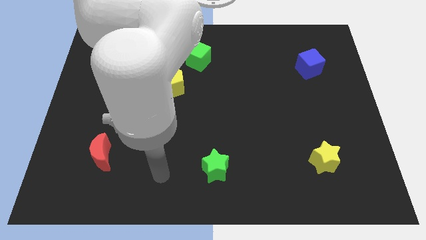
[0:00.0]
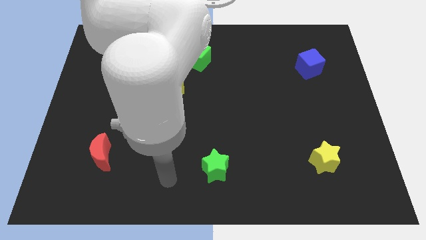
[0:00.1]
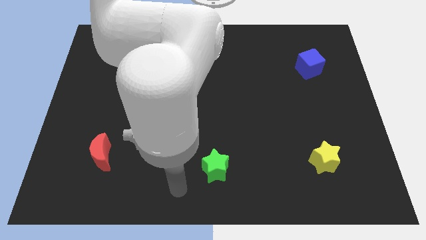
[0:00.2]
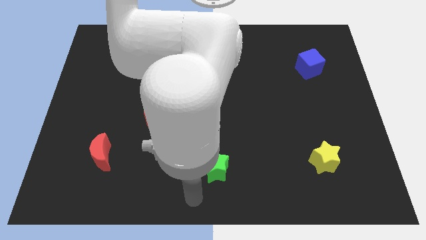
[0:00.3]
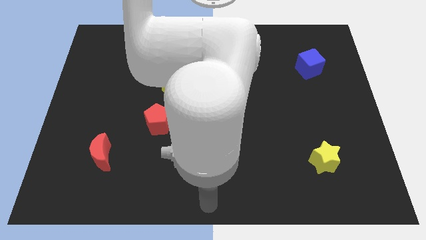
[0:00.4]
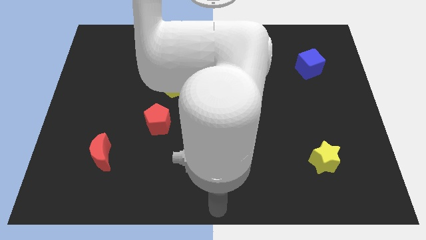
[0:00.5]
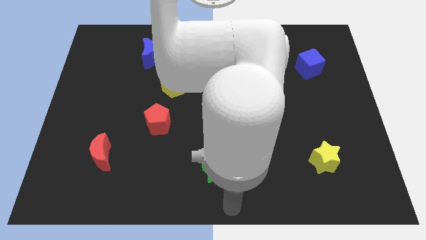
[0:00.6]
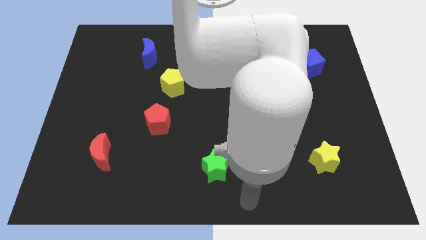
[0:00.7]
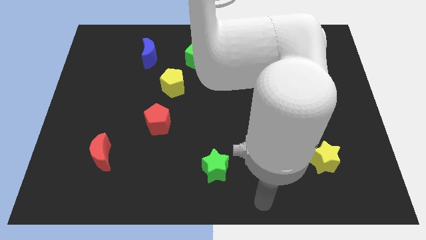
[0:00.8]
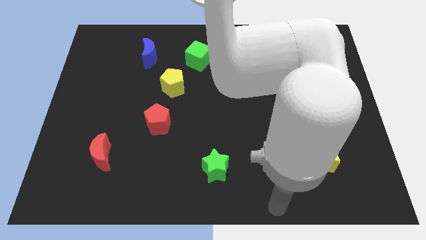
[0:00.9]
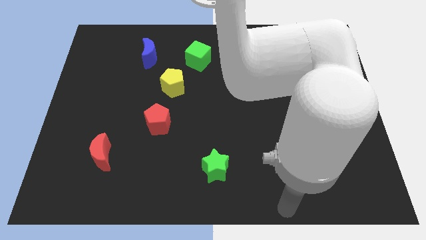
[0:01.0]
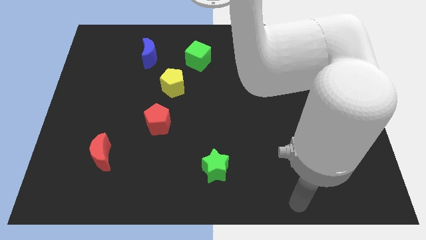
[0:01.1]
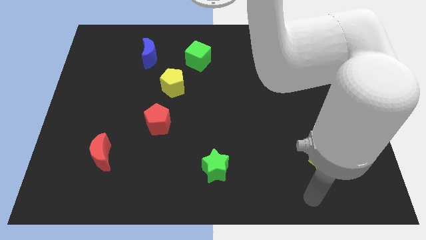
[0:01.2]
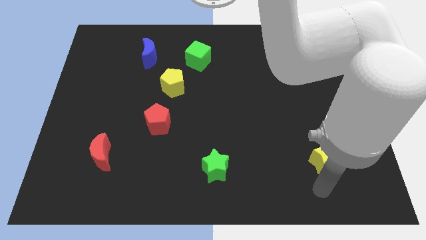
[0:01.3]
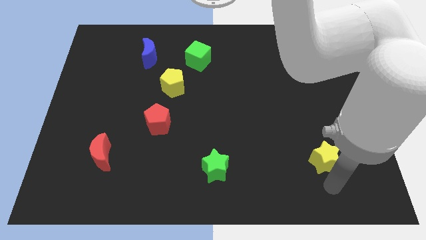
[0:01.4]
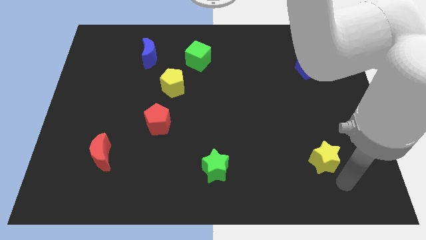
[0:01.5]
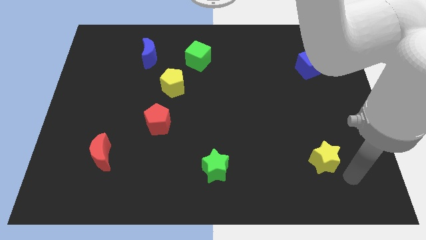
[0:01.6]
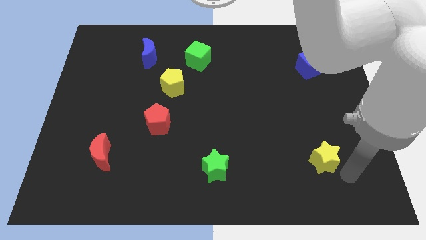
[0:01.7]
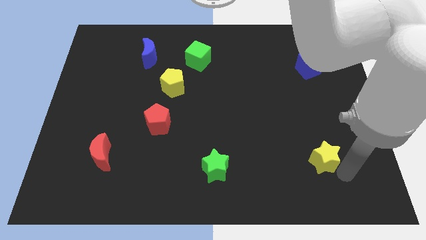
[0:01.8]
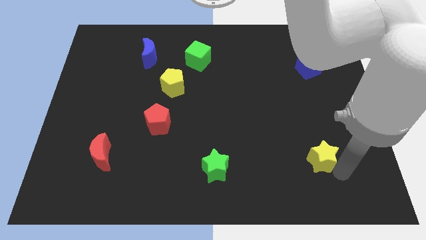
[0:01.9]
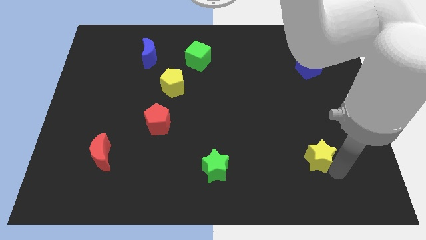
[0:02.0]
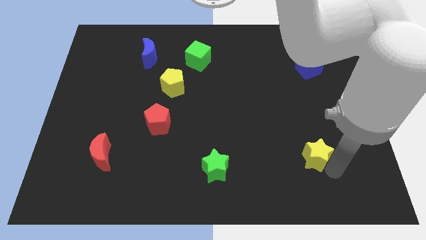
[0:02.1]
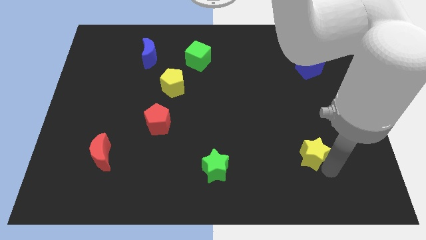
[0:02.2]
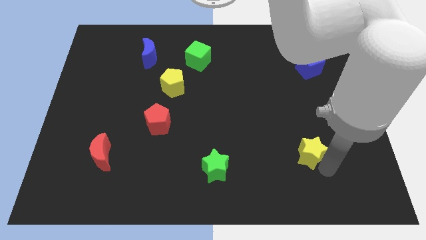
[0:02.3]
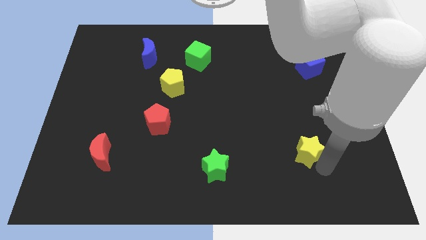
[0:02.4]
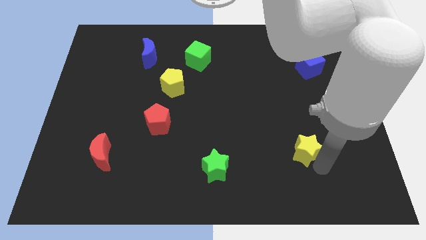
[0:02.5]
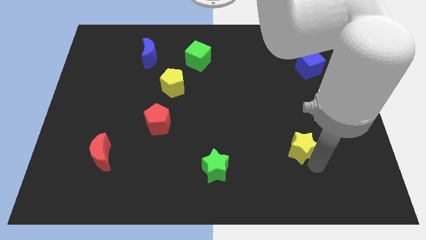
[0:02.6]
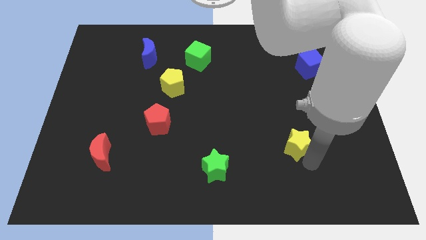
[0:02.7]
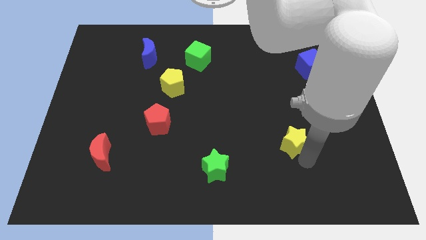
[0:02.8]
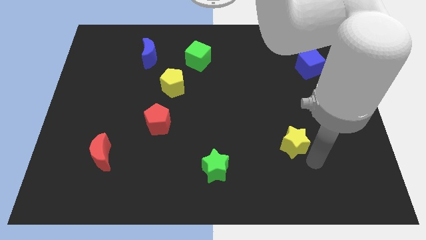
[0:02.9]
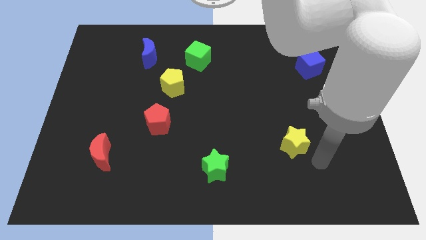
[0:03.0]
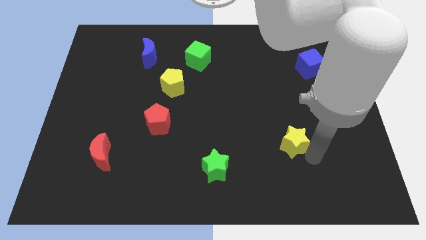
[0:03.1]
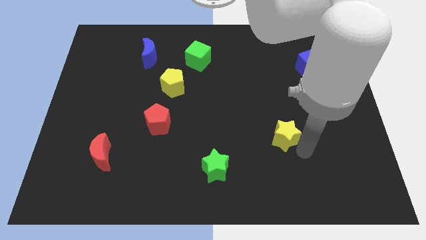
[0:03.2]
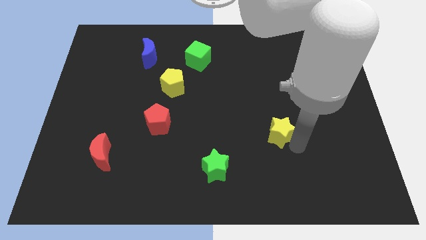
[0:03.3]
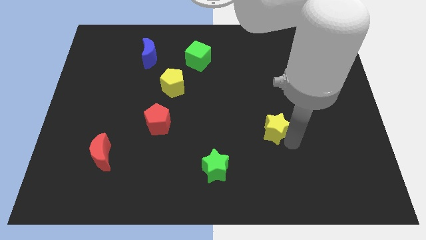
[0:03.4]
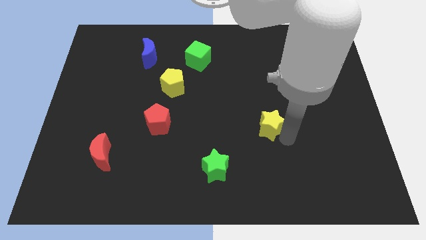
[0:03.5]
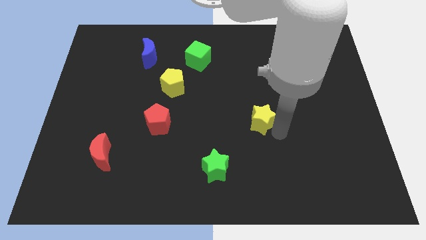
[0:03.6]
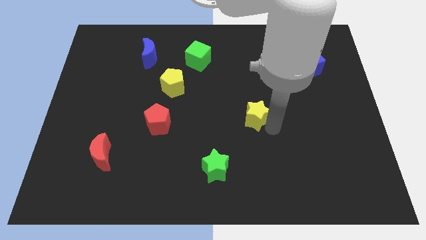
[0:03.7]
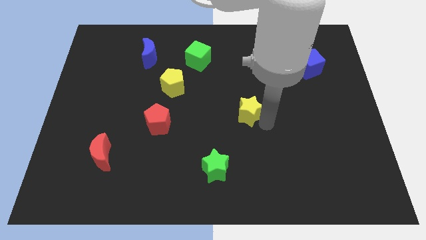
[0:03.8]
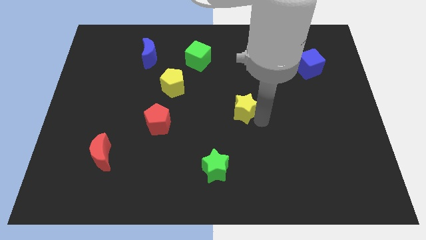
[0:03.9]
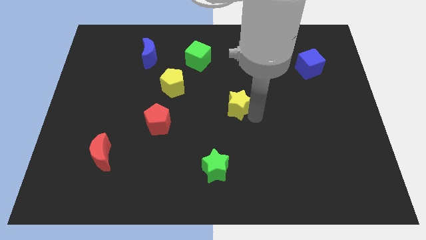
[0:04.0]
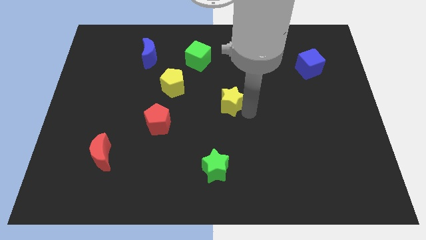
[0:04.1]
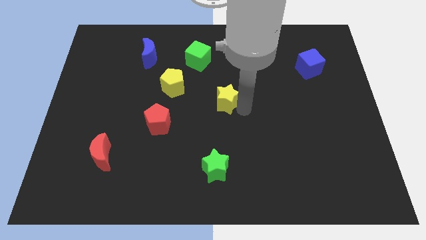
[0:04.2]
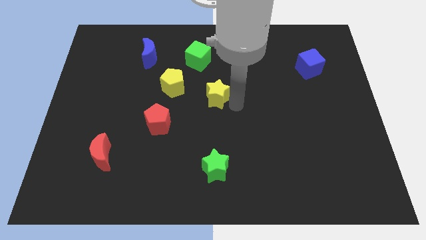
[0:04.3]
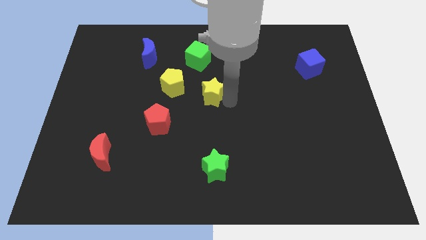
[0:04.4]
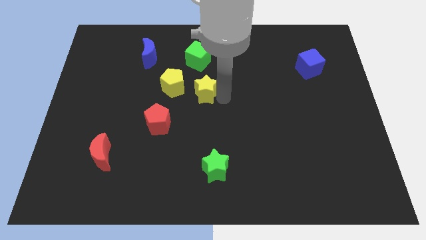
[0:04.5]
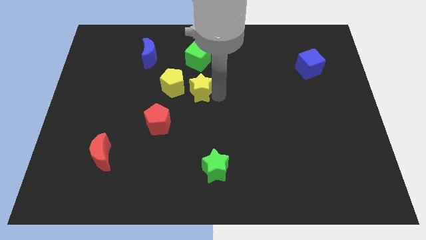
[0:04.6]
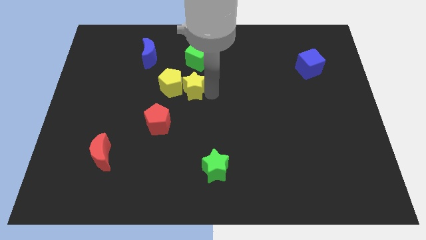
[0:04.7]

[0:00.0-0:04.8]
put the yellow star next to the yellow pentagon

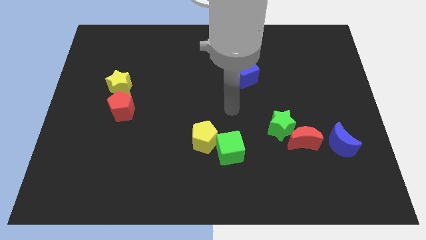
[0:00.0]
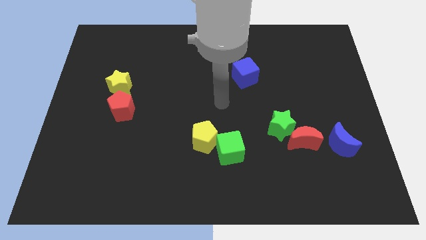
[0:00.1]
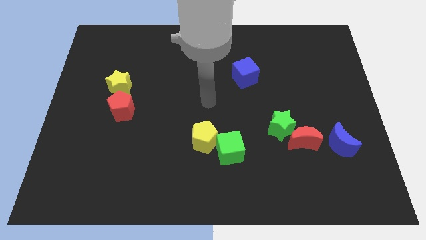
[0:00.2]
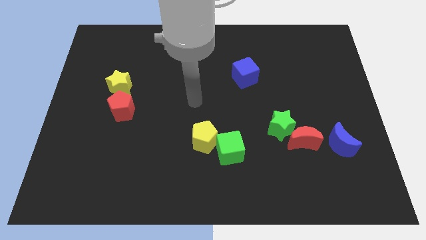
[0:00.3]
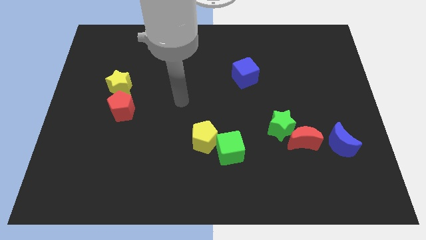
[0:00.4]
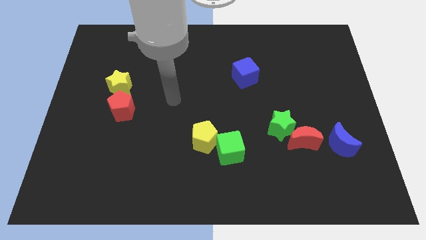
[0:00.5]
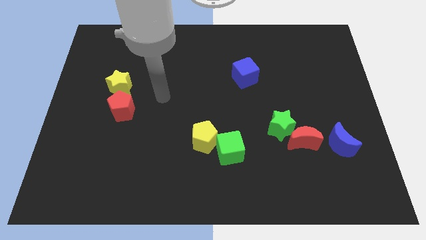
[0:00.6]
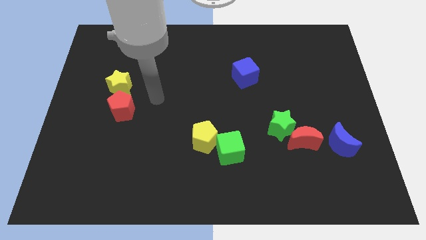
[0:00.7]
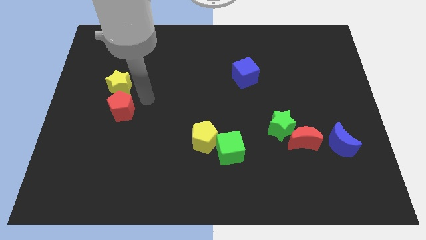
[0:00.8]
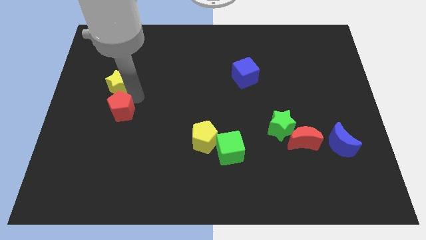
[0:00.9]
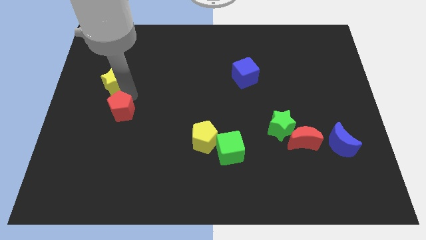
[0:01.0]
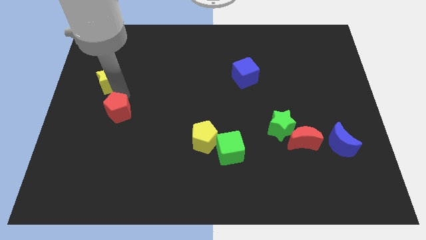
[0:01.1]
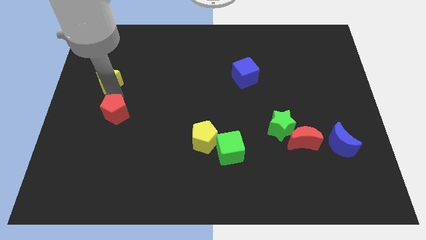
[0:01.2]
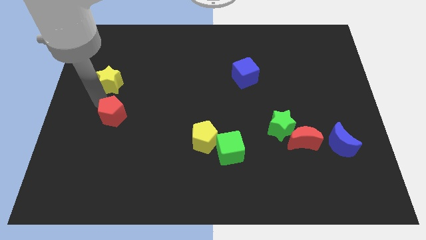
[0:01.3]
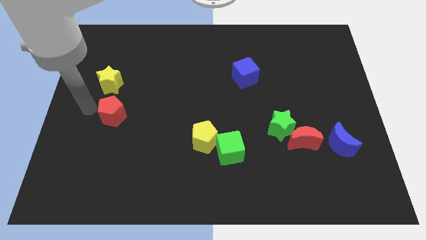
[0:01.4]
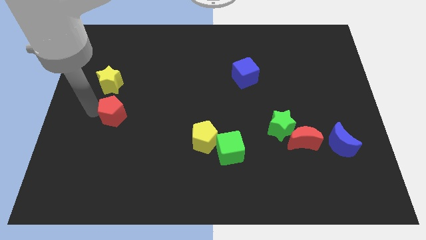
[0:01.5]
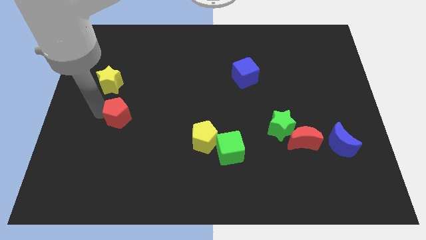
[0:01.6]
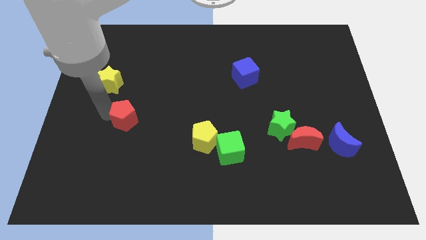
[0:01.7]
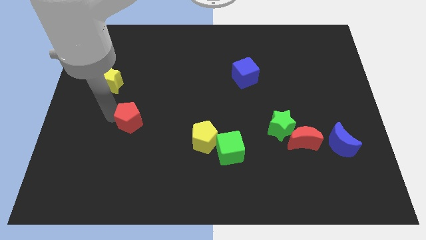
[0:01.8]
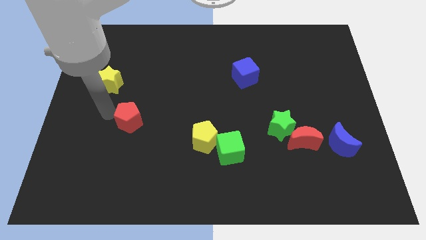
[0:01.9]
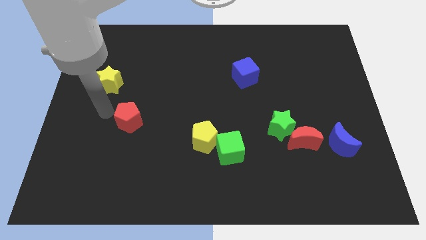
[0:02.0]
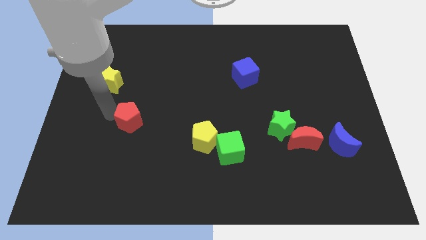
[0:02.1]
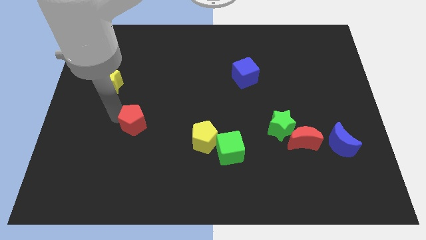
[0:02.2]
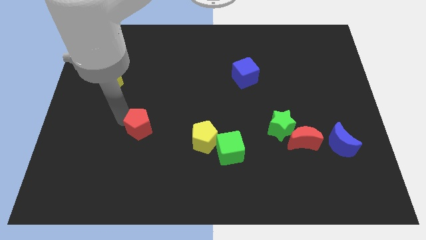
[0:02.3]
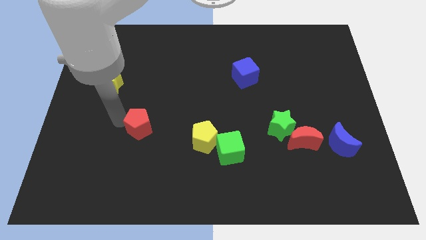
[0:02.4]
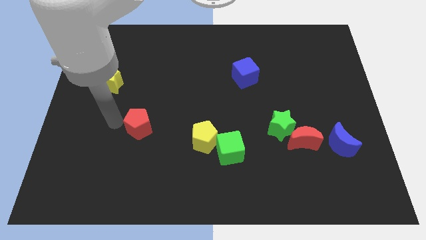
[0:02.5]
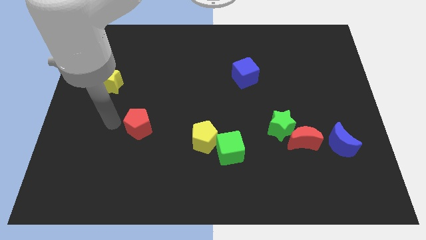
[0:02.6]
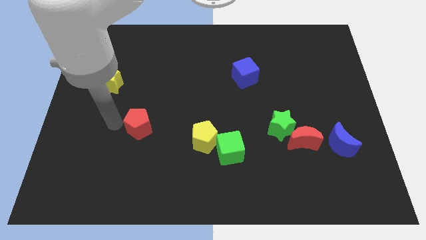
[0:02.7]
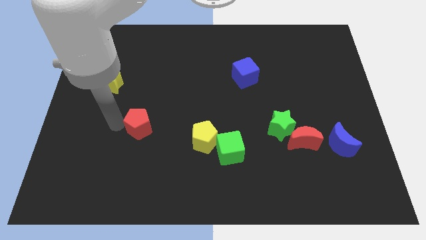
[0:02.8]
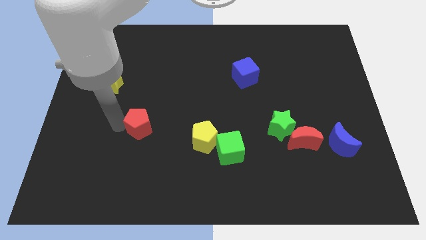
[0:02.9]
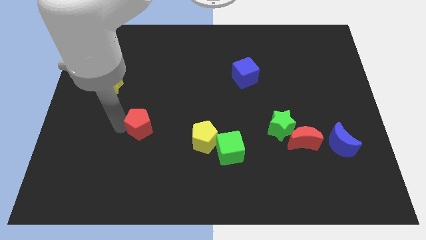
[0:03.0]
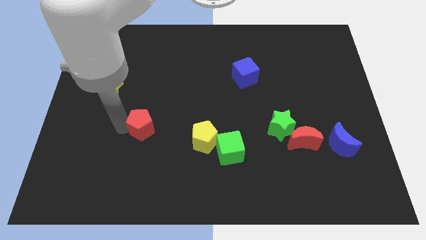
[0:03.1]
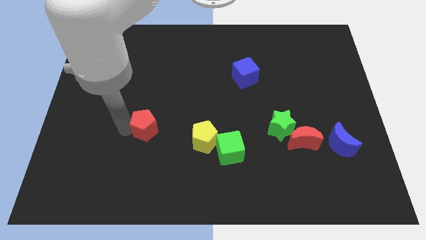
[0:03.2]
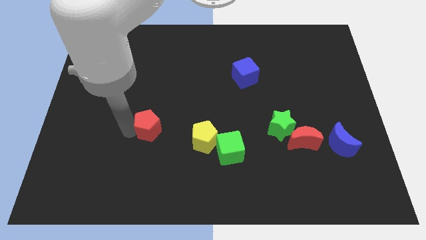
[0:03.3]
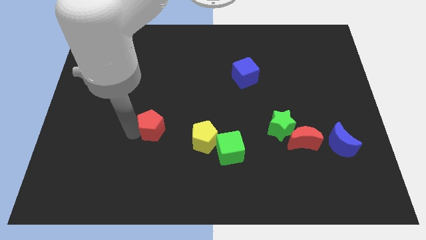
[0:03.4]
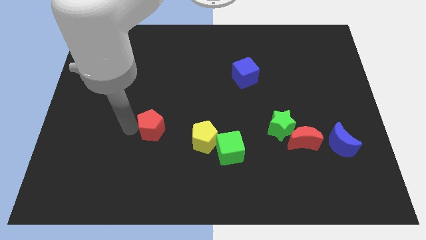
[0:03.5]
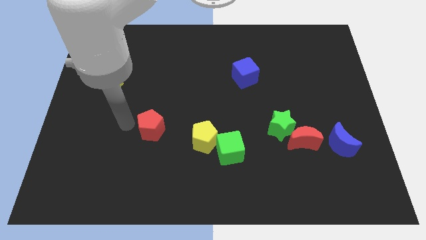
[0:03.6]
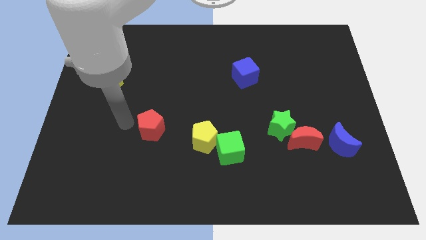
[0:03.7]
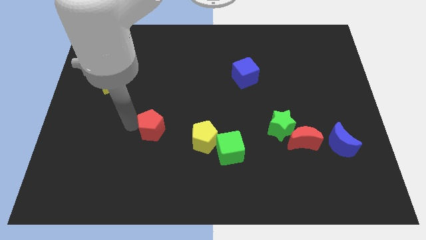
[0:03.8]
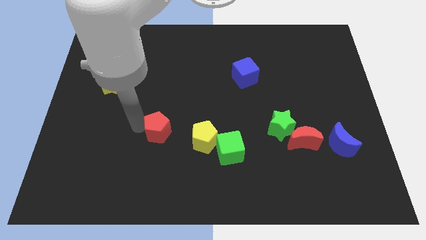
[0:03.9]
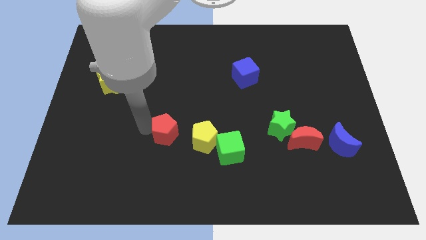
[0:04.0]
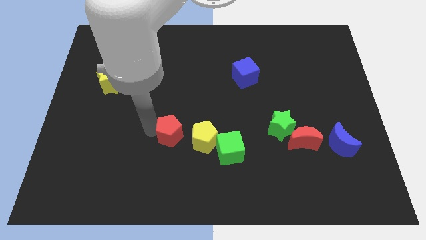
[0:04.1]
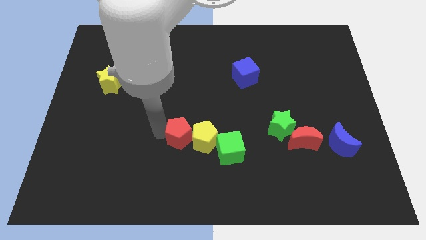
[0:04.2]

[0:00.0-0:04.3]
slide the red pentagon close to the yellow pentagon
